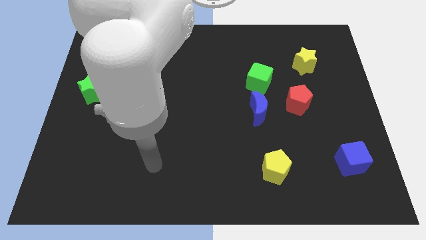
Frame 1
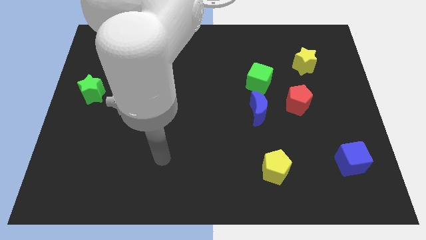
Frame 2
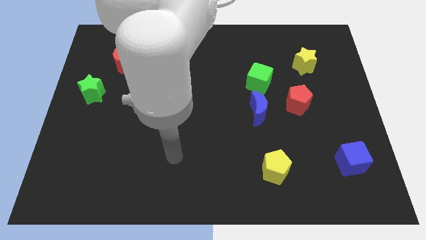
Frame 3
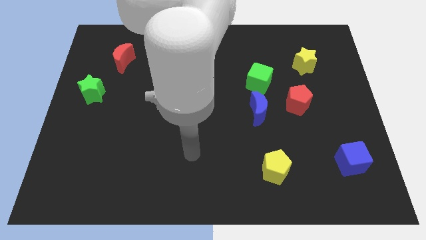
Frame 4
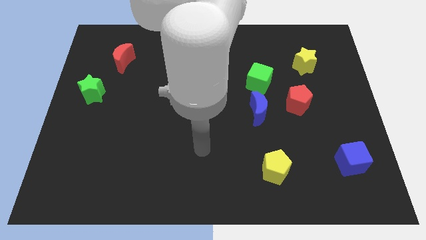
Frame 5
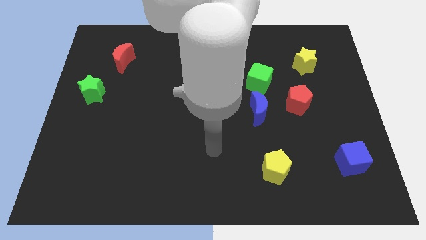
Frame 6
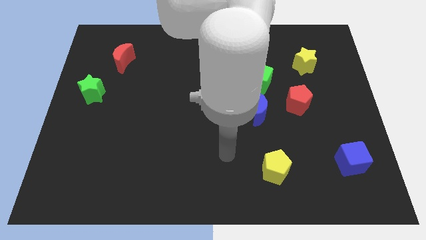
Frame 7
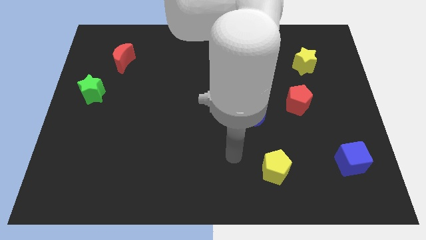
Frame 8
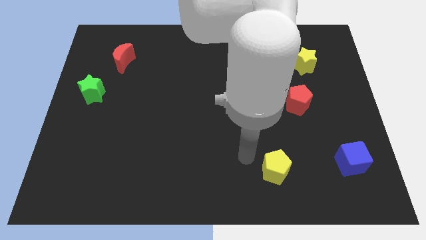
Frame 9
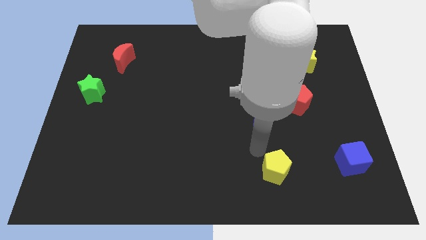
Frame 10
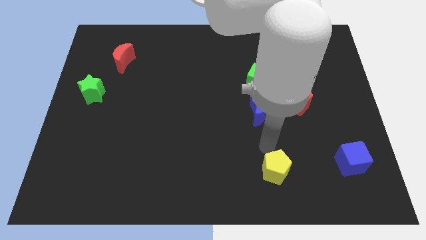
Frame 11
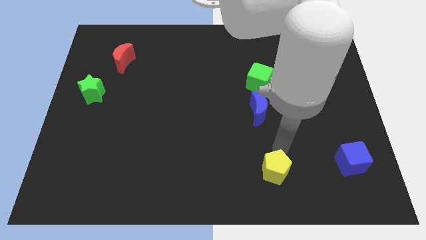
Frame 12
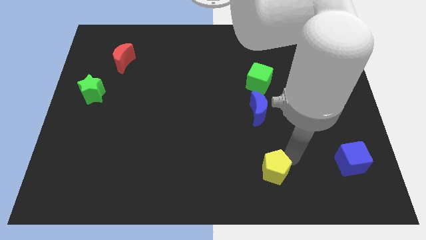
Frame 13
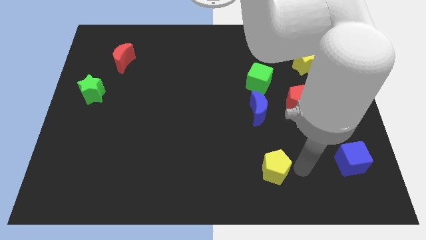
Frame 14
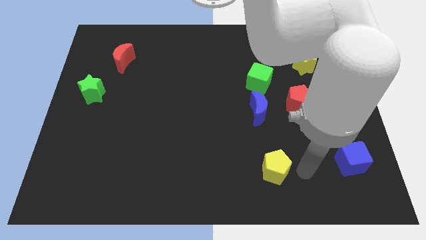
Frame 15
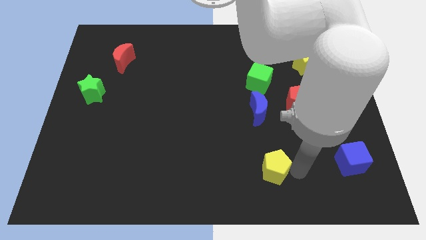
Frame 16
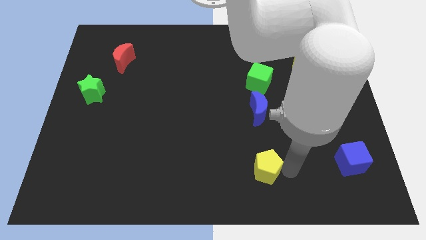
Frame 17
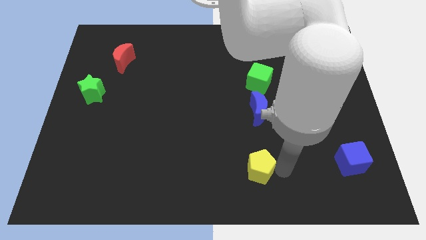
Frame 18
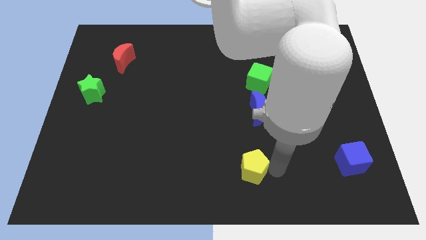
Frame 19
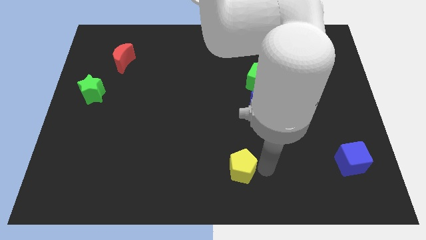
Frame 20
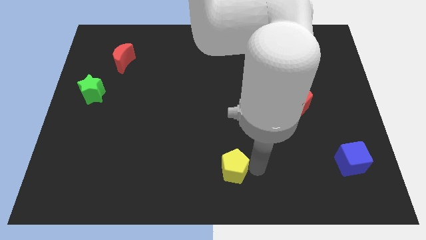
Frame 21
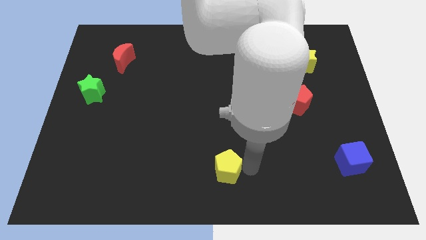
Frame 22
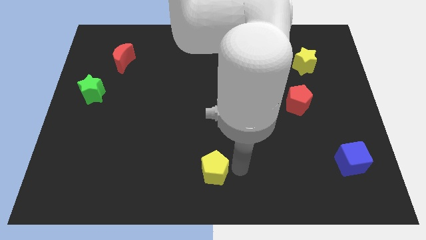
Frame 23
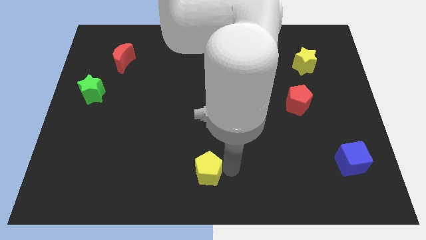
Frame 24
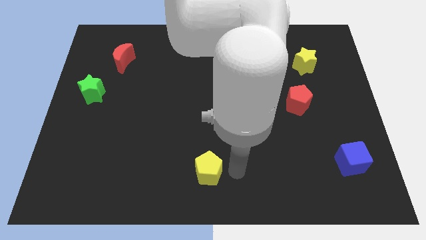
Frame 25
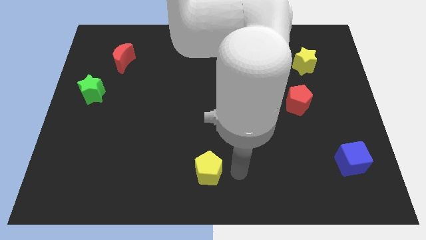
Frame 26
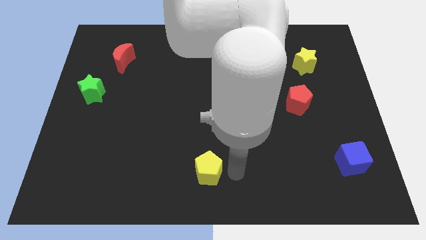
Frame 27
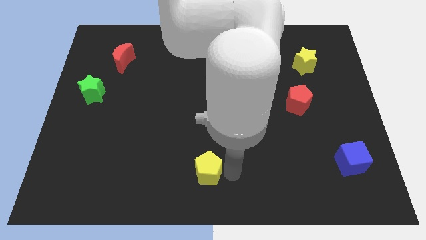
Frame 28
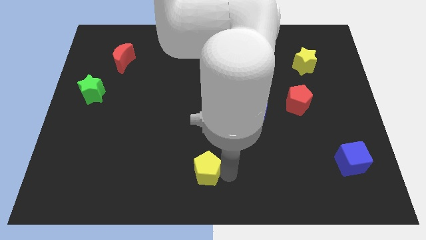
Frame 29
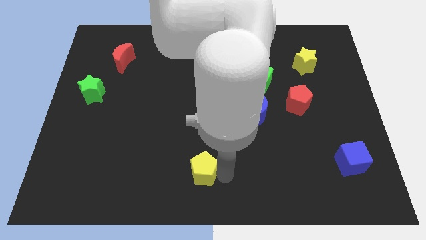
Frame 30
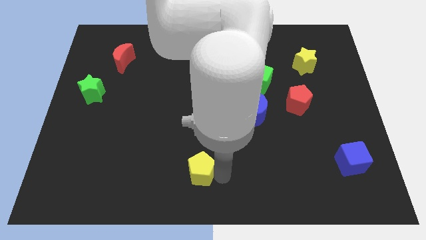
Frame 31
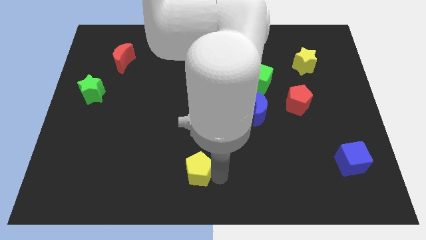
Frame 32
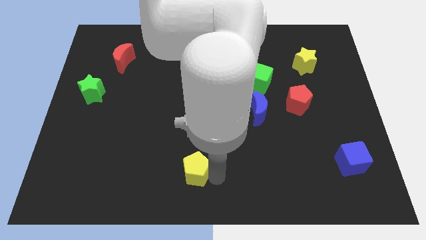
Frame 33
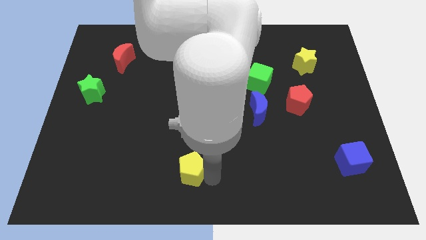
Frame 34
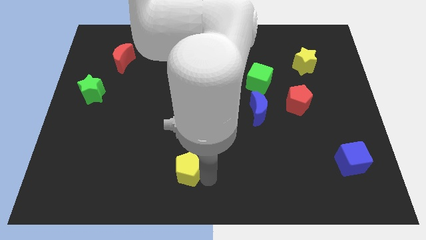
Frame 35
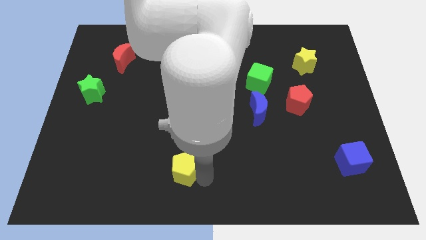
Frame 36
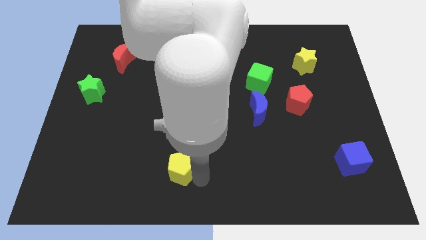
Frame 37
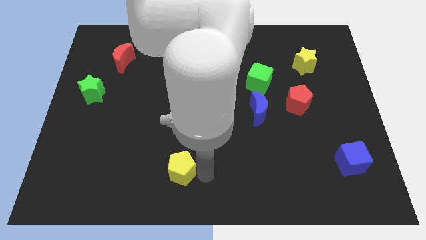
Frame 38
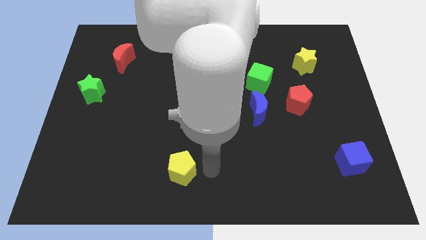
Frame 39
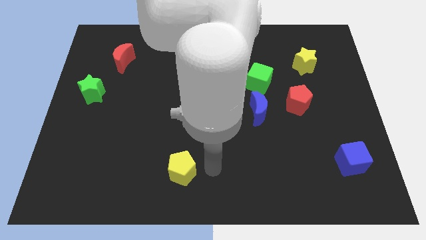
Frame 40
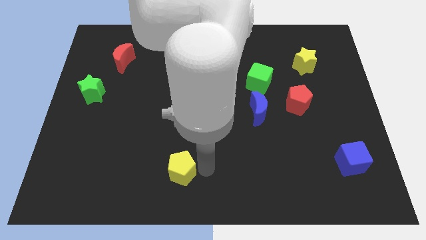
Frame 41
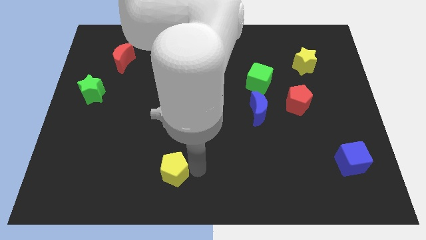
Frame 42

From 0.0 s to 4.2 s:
push the yellow pentagon left

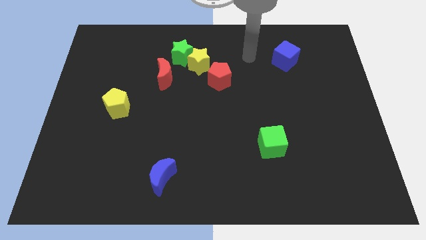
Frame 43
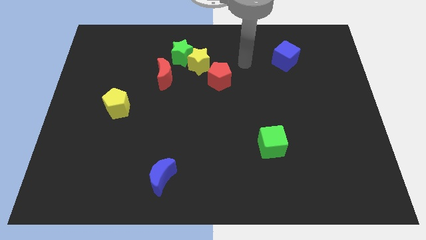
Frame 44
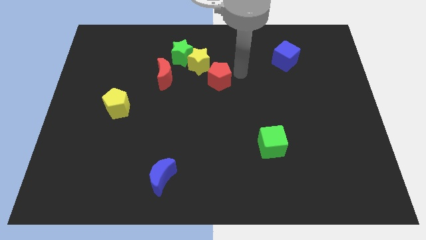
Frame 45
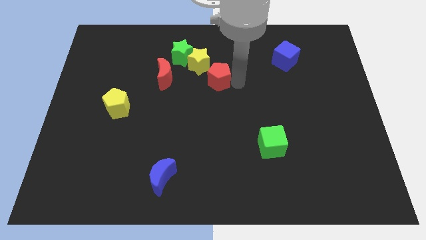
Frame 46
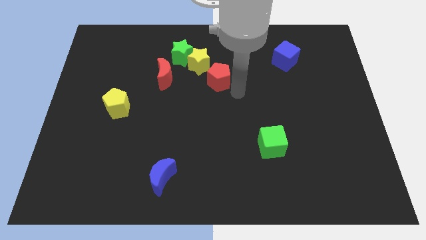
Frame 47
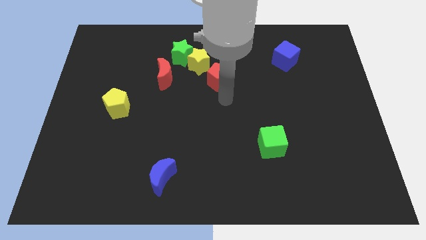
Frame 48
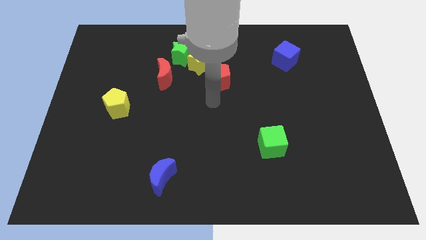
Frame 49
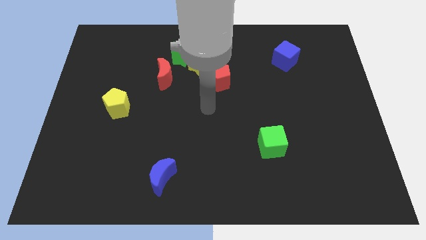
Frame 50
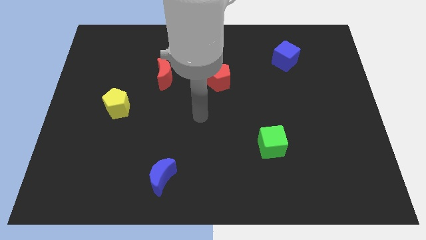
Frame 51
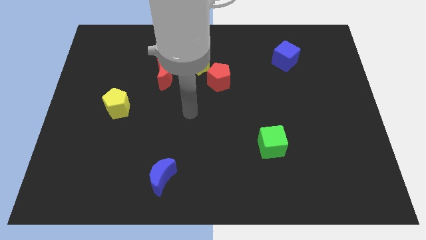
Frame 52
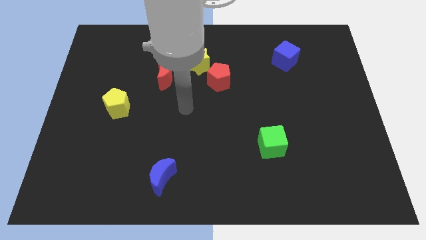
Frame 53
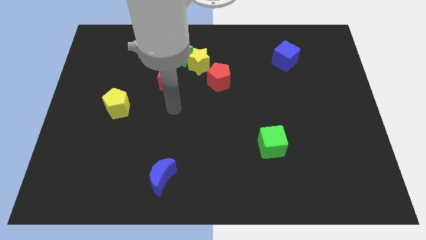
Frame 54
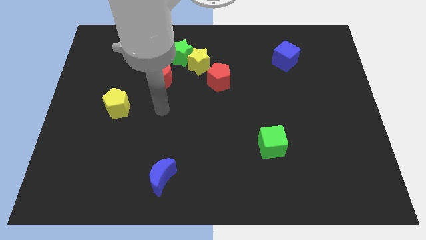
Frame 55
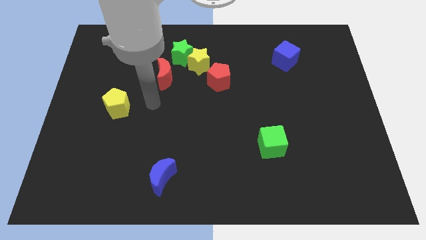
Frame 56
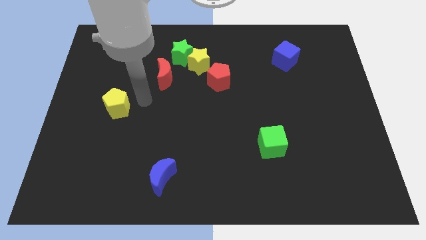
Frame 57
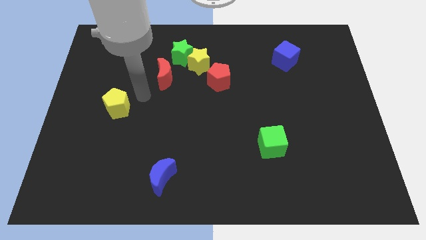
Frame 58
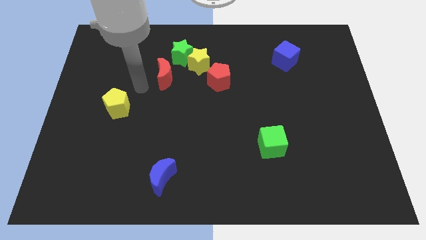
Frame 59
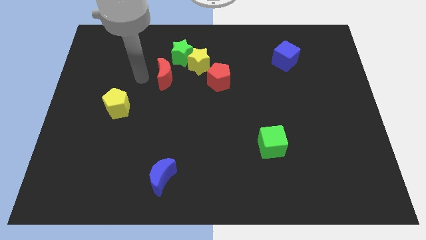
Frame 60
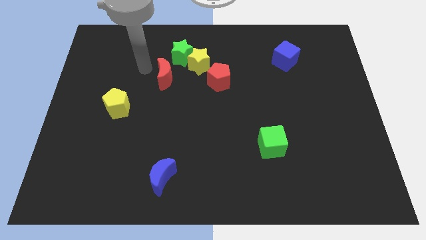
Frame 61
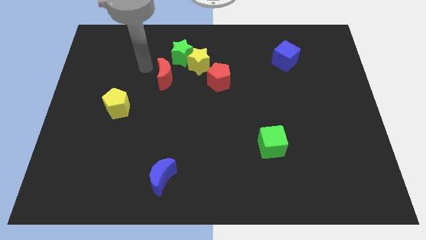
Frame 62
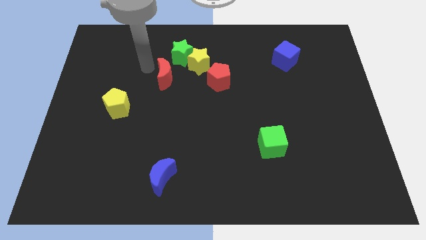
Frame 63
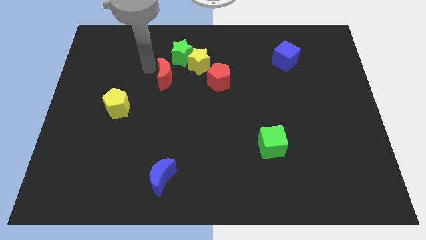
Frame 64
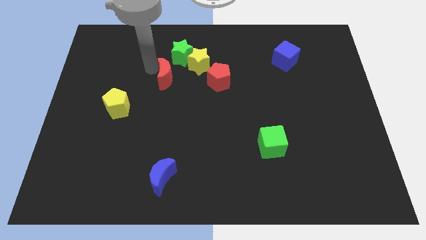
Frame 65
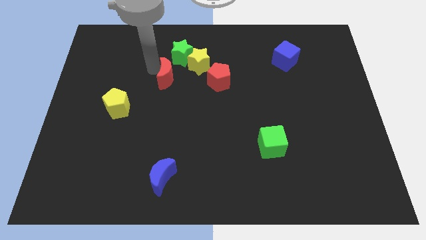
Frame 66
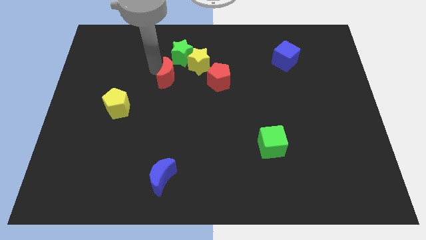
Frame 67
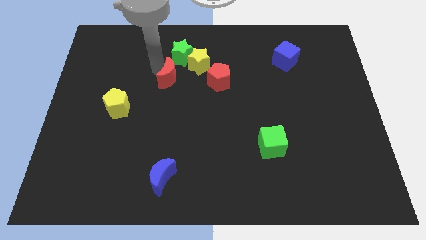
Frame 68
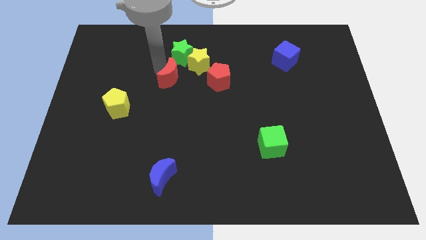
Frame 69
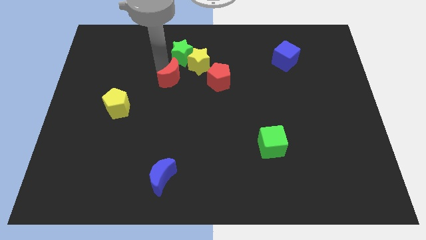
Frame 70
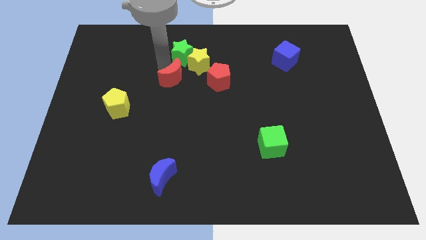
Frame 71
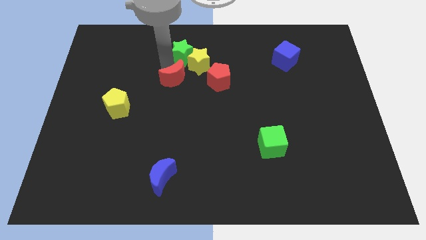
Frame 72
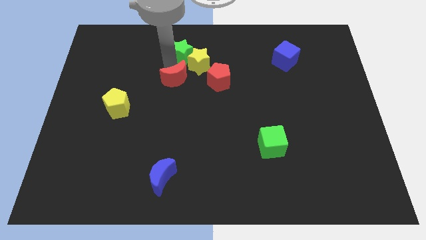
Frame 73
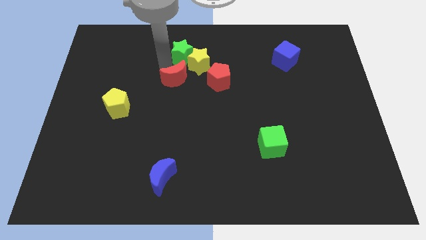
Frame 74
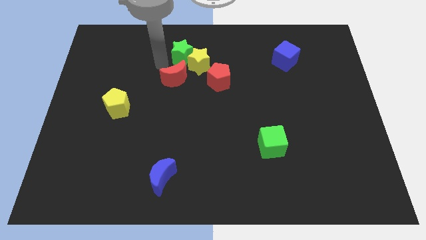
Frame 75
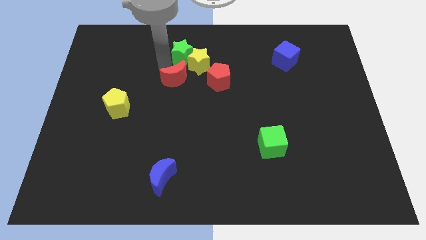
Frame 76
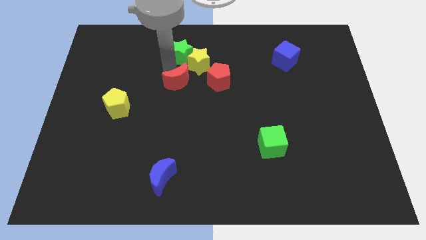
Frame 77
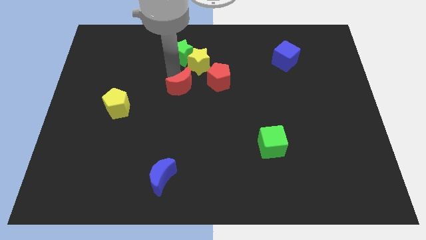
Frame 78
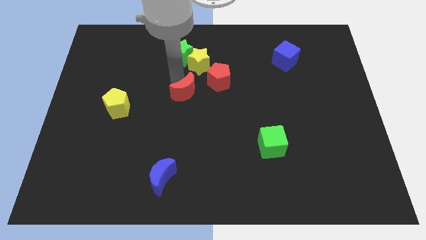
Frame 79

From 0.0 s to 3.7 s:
move the red moon somewhat diagonally down and to the right
